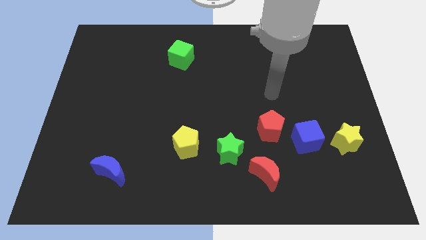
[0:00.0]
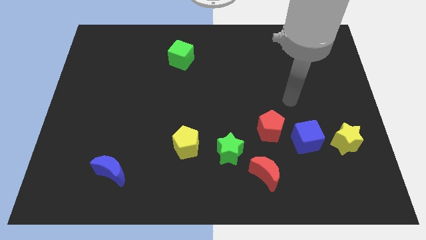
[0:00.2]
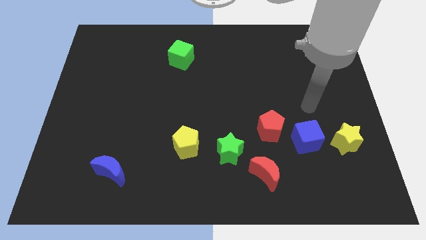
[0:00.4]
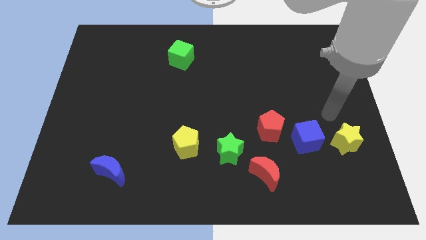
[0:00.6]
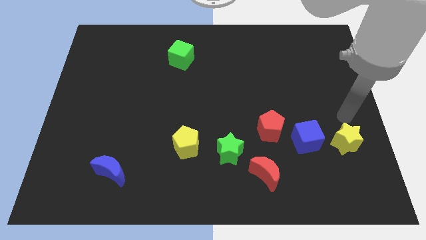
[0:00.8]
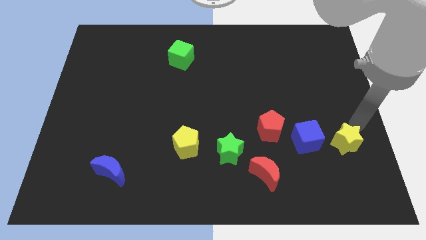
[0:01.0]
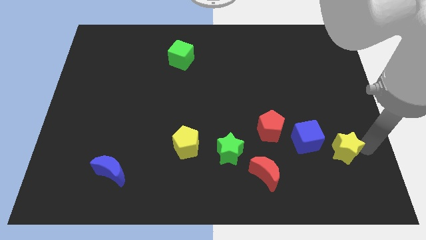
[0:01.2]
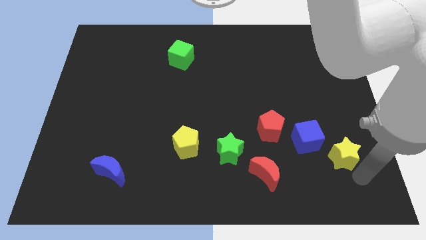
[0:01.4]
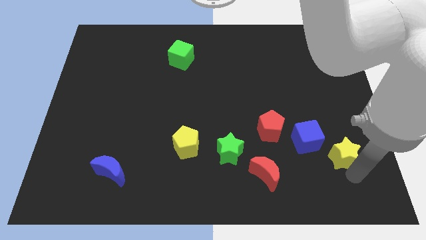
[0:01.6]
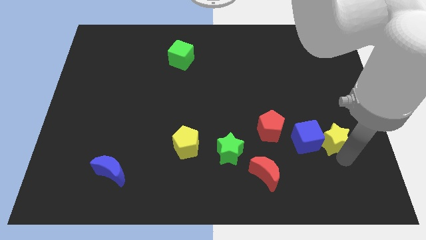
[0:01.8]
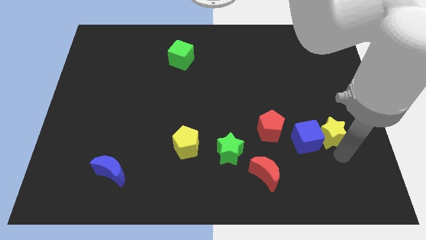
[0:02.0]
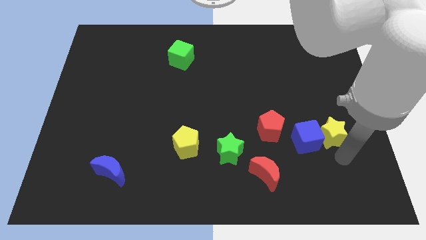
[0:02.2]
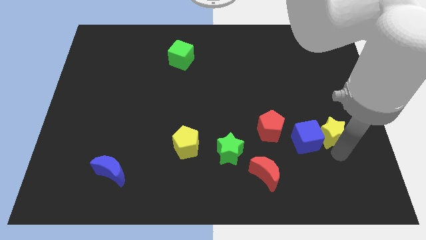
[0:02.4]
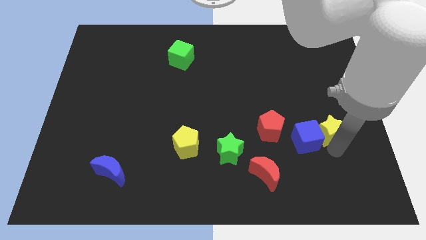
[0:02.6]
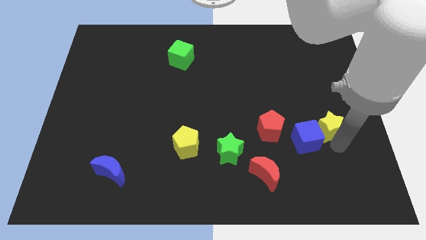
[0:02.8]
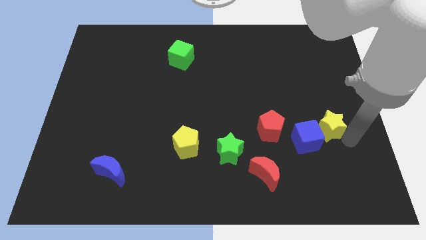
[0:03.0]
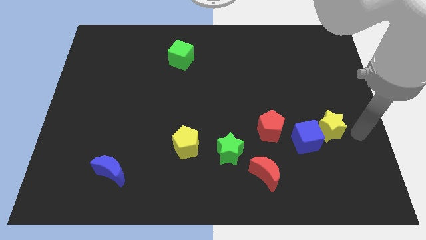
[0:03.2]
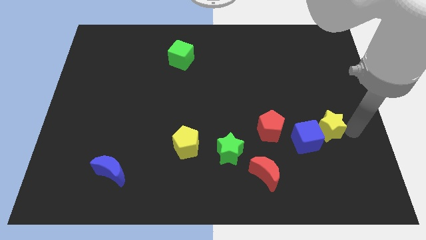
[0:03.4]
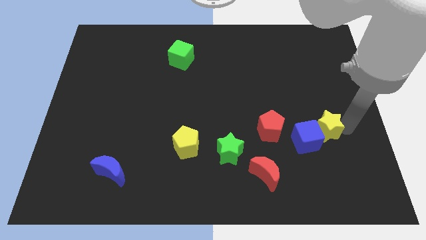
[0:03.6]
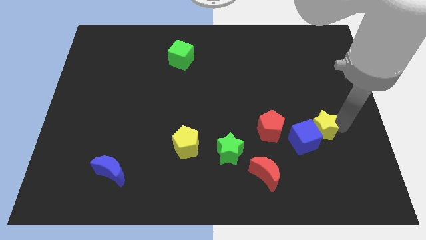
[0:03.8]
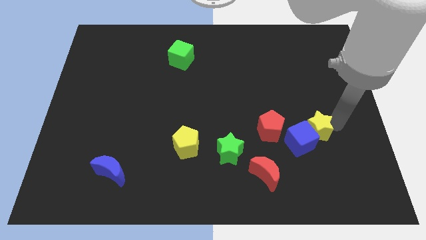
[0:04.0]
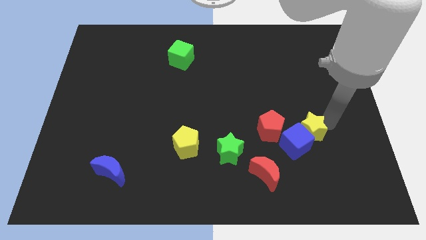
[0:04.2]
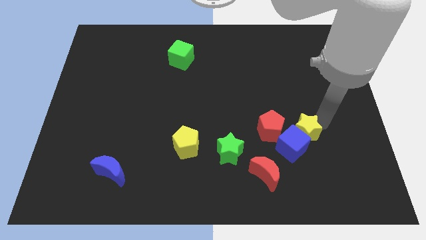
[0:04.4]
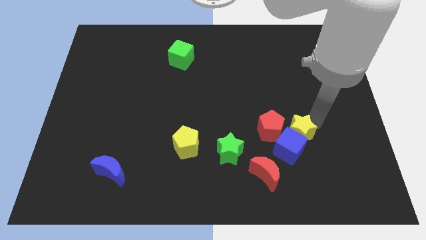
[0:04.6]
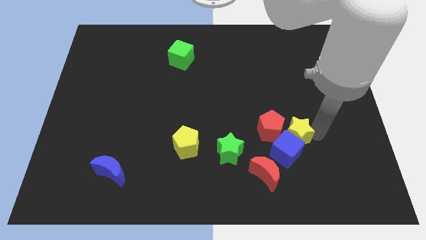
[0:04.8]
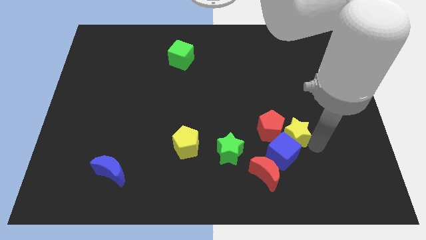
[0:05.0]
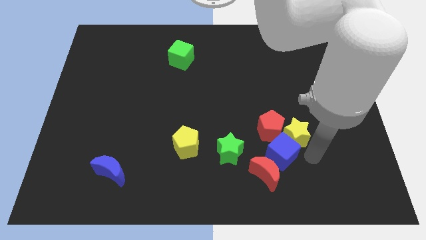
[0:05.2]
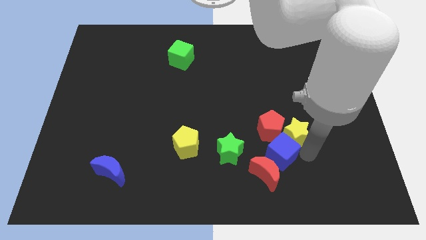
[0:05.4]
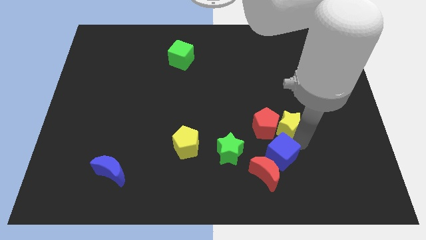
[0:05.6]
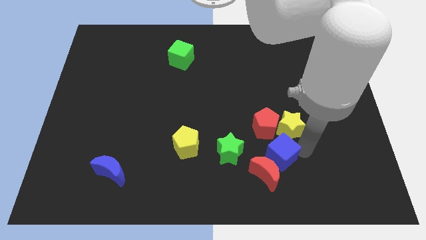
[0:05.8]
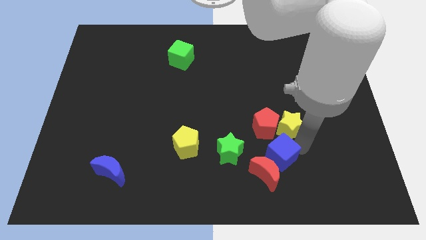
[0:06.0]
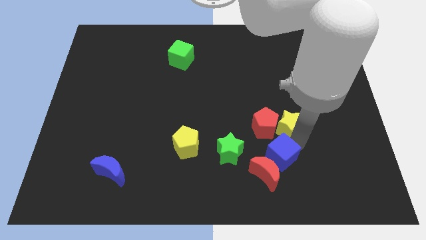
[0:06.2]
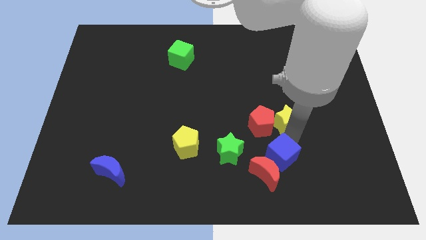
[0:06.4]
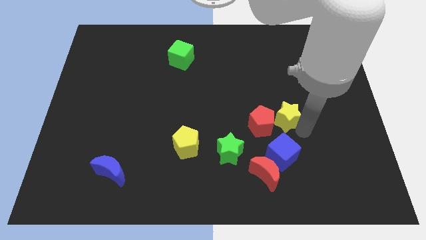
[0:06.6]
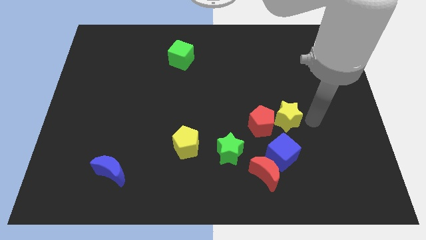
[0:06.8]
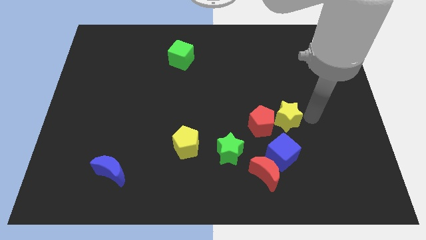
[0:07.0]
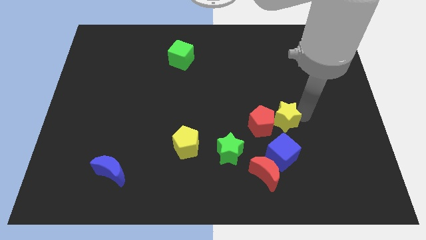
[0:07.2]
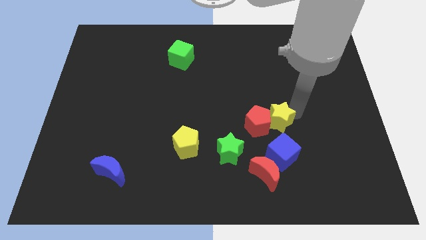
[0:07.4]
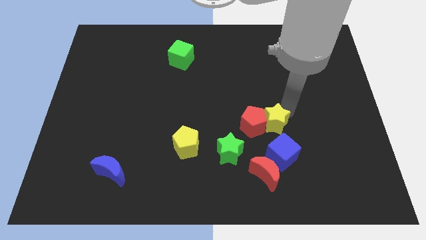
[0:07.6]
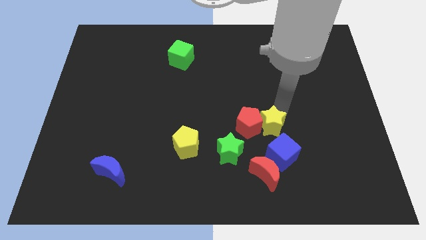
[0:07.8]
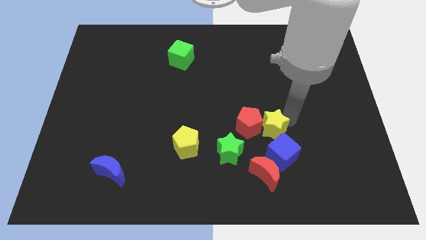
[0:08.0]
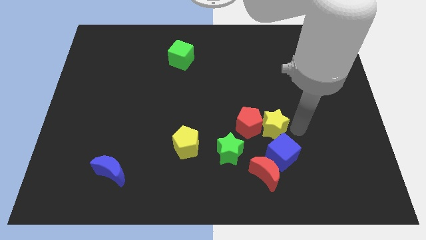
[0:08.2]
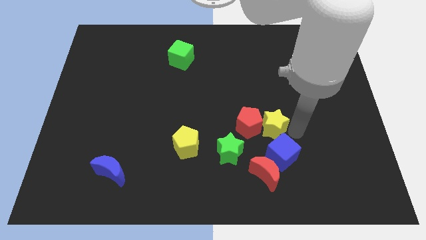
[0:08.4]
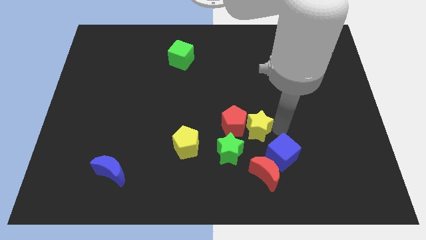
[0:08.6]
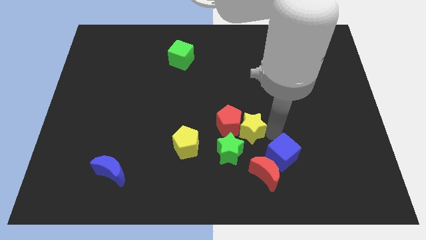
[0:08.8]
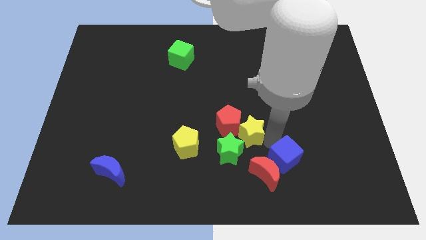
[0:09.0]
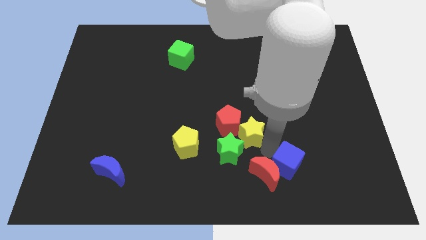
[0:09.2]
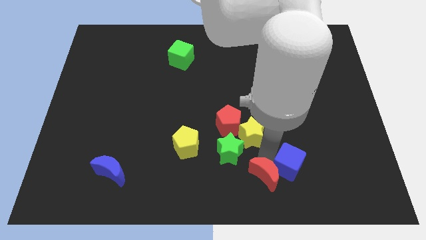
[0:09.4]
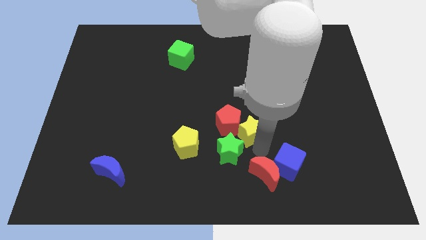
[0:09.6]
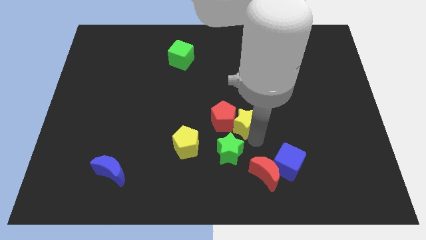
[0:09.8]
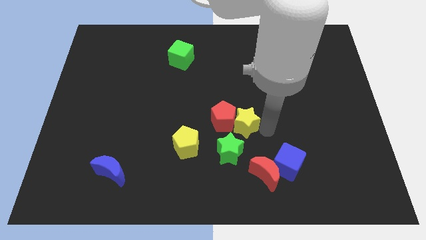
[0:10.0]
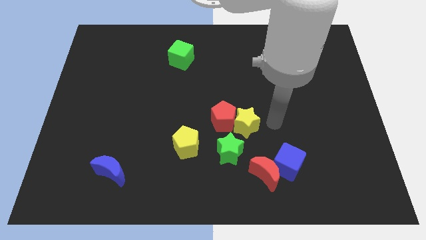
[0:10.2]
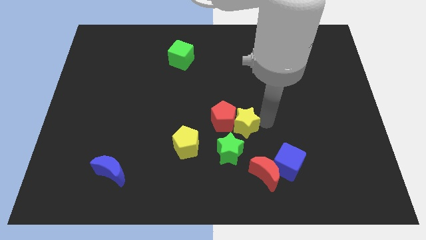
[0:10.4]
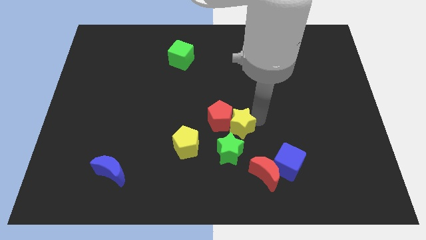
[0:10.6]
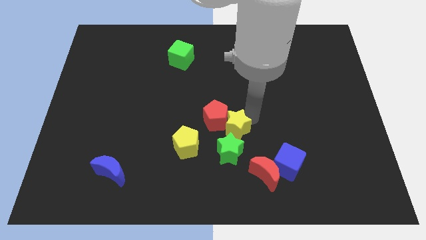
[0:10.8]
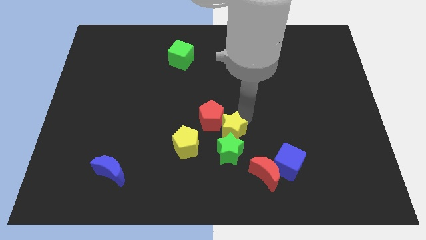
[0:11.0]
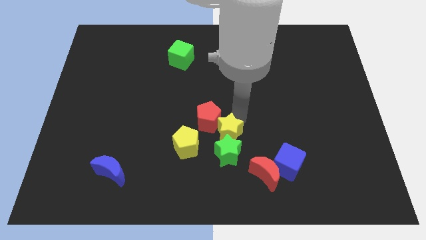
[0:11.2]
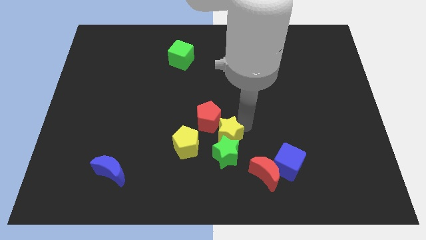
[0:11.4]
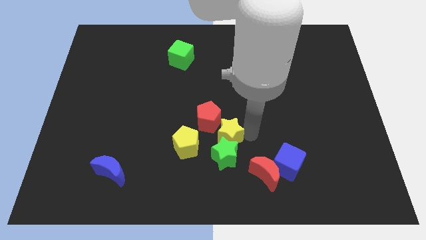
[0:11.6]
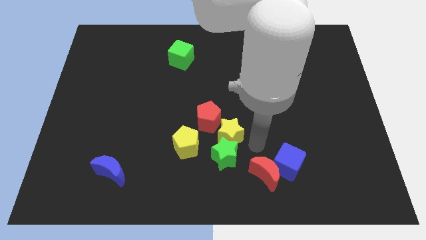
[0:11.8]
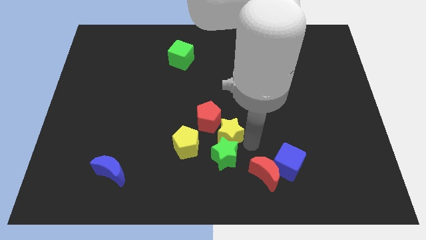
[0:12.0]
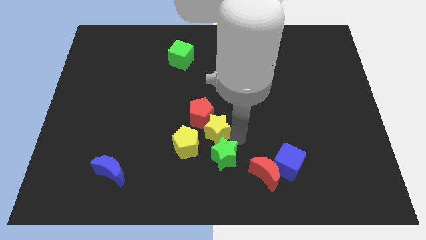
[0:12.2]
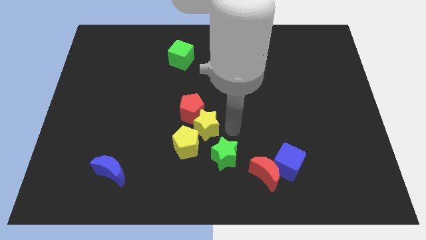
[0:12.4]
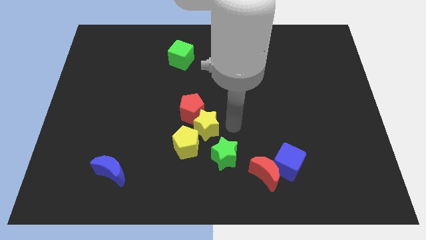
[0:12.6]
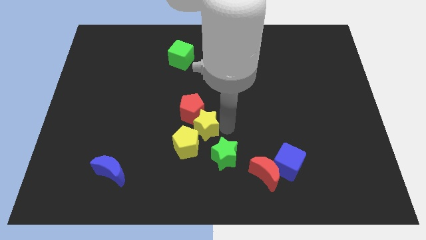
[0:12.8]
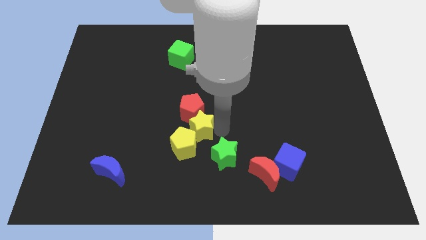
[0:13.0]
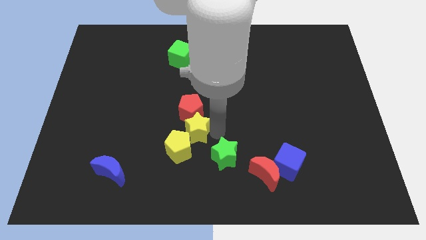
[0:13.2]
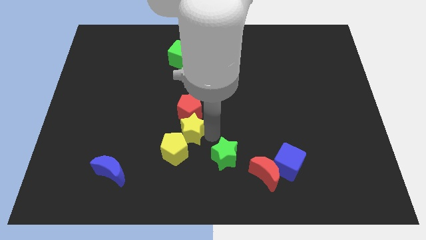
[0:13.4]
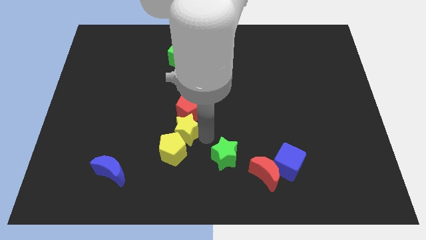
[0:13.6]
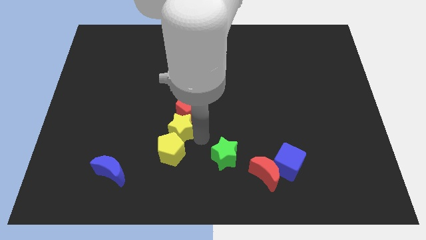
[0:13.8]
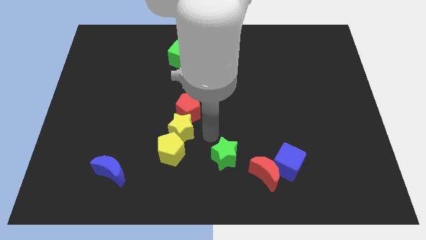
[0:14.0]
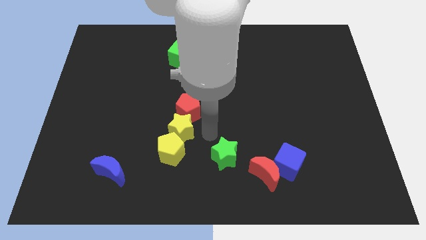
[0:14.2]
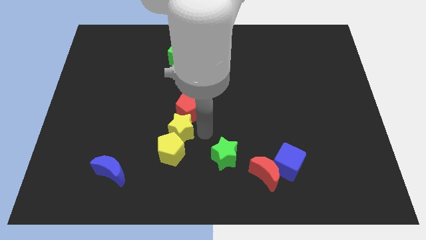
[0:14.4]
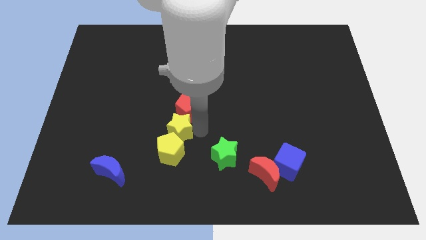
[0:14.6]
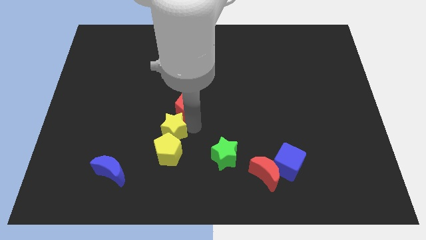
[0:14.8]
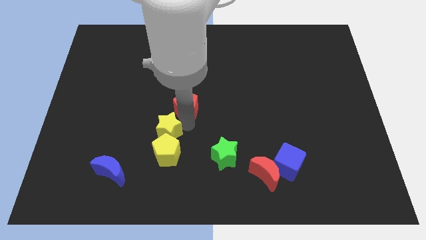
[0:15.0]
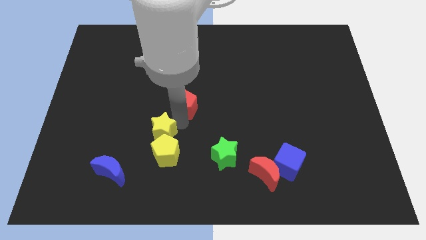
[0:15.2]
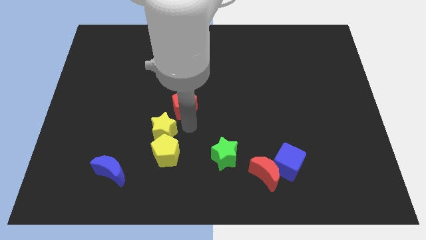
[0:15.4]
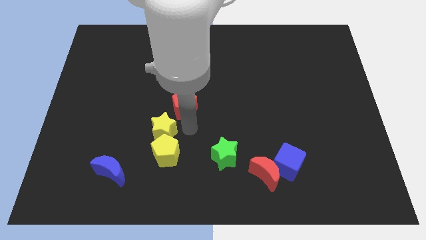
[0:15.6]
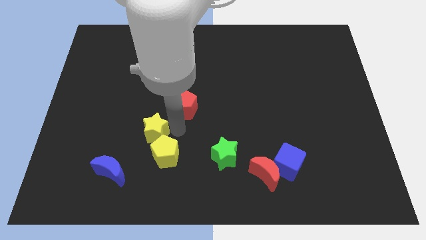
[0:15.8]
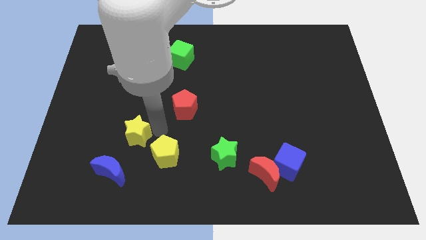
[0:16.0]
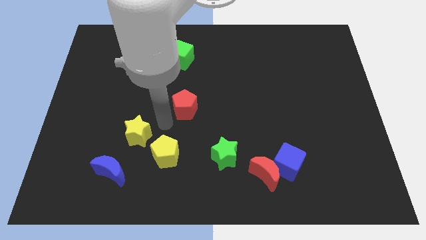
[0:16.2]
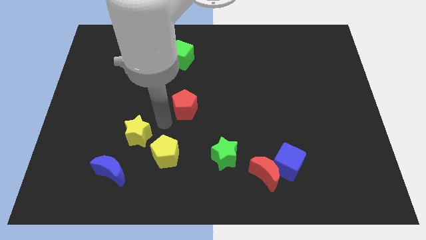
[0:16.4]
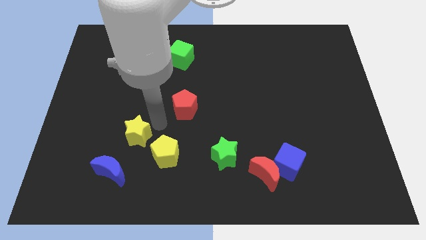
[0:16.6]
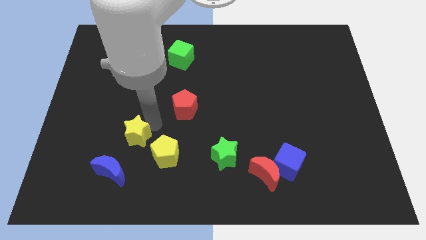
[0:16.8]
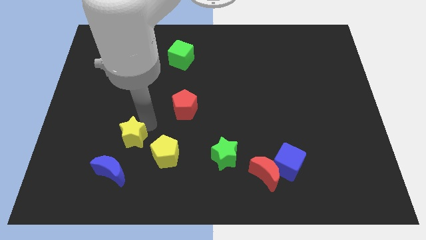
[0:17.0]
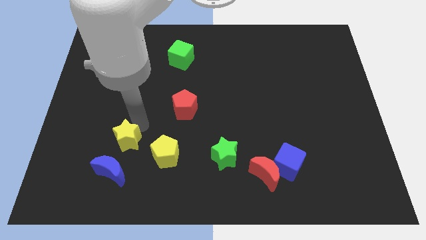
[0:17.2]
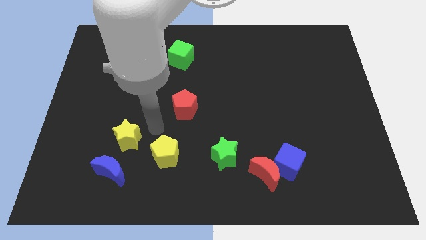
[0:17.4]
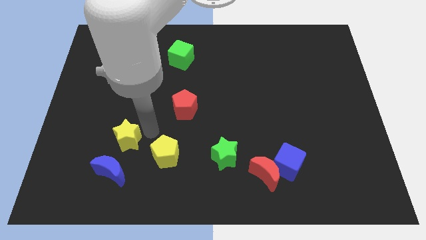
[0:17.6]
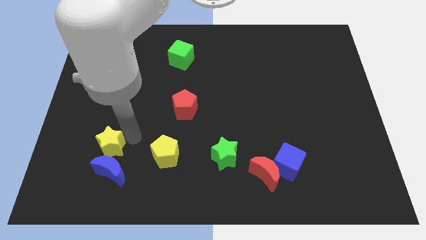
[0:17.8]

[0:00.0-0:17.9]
push the yellow star to the top left of the blue moon
